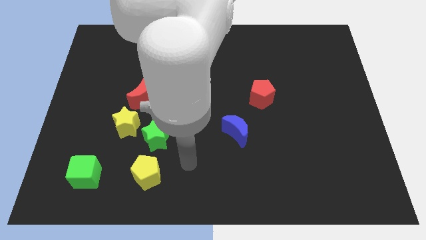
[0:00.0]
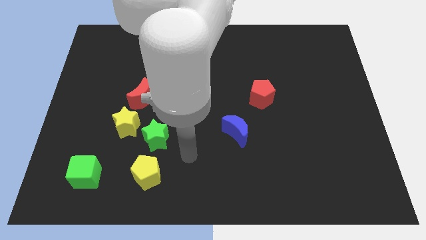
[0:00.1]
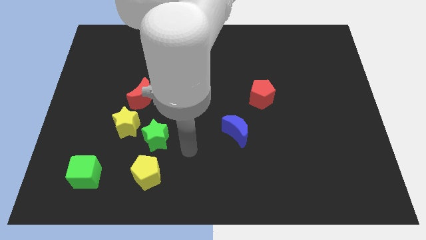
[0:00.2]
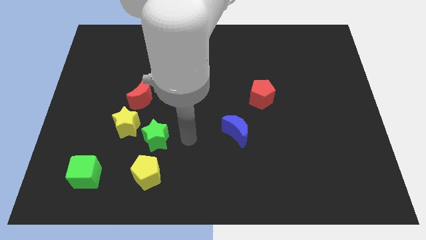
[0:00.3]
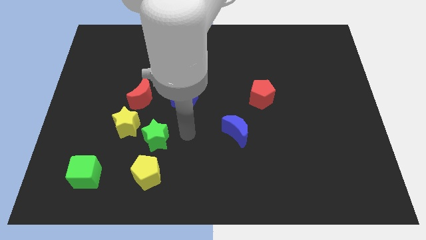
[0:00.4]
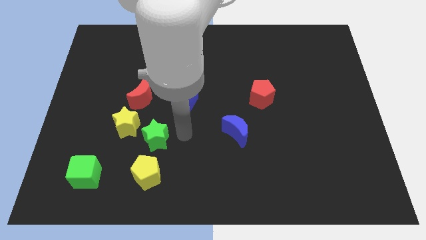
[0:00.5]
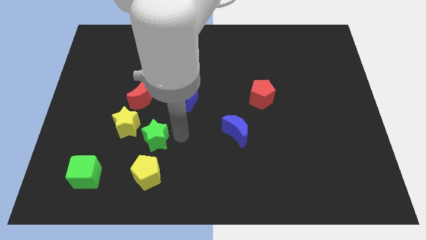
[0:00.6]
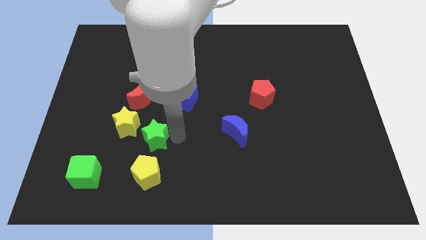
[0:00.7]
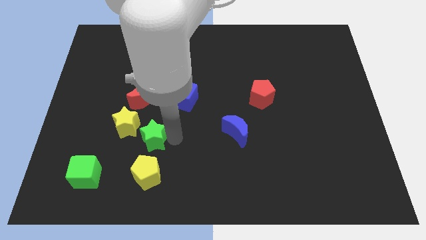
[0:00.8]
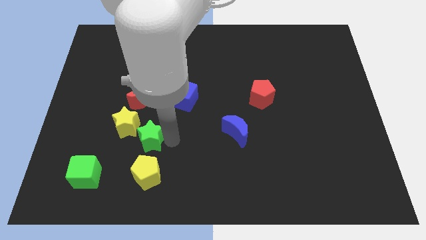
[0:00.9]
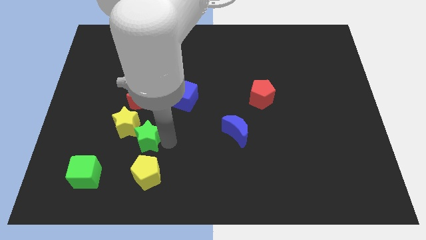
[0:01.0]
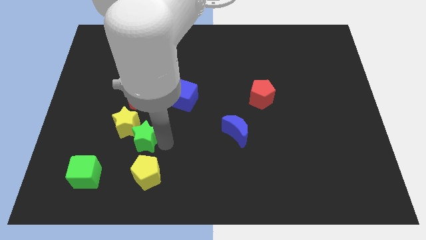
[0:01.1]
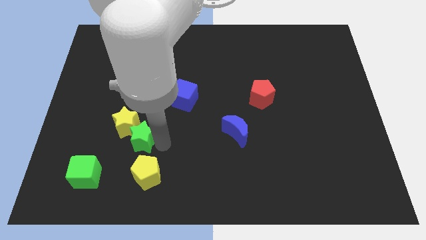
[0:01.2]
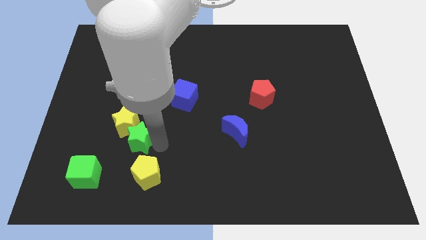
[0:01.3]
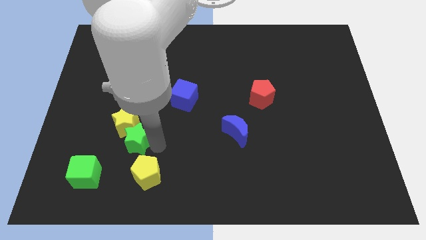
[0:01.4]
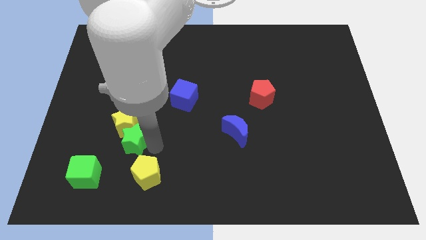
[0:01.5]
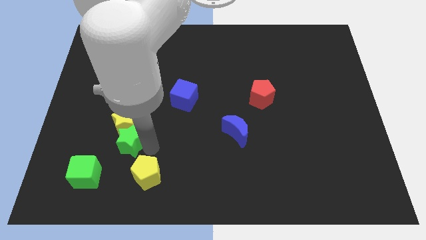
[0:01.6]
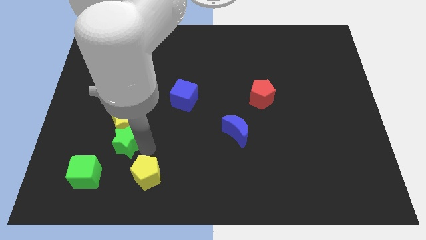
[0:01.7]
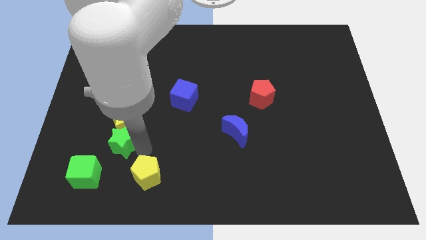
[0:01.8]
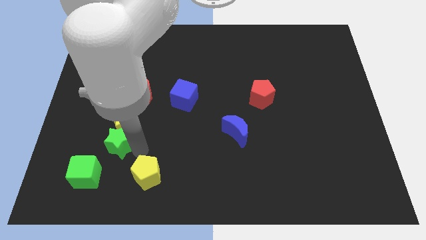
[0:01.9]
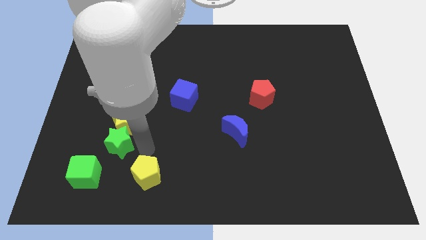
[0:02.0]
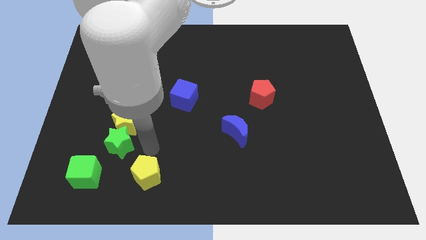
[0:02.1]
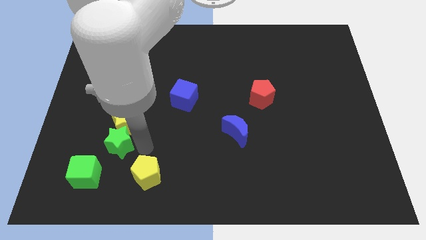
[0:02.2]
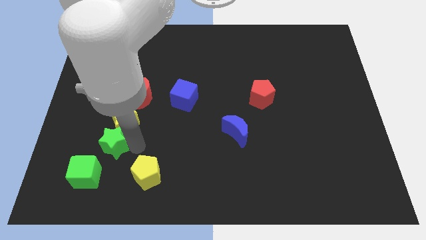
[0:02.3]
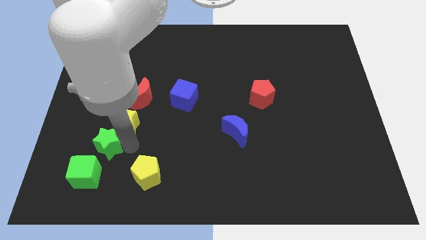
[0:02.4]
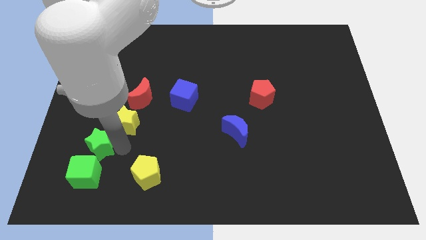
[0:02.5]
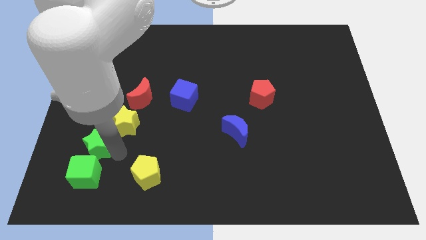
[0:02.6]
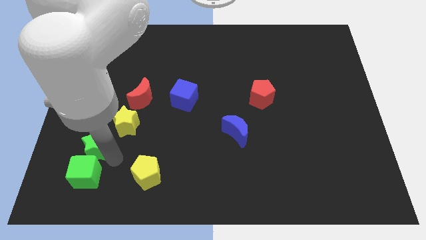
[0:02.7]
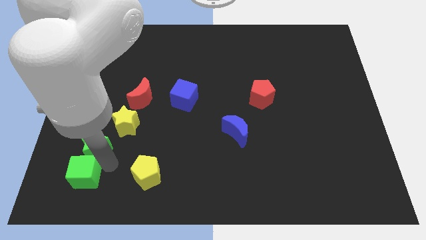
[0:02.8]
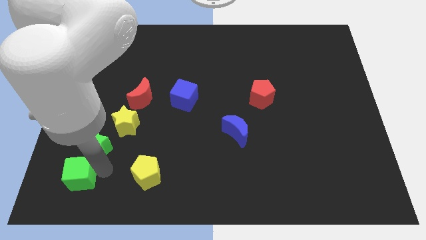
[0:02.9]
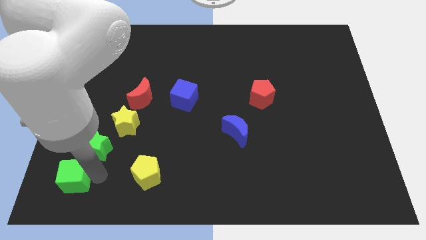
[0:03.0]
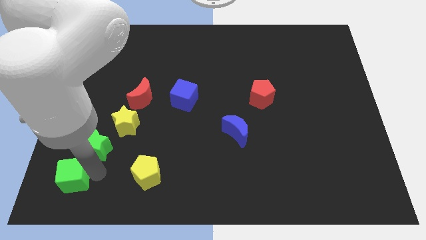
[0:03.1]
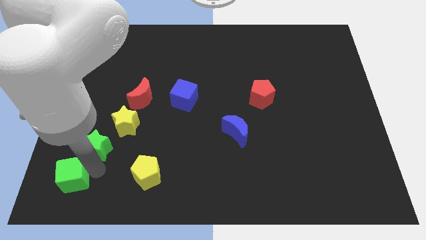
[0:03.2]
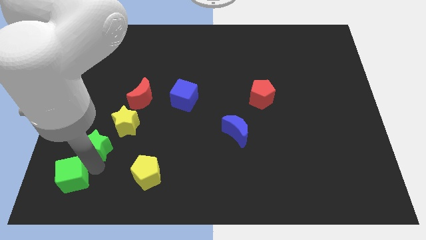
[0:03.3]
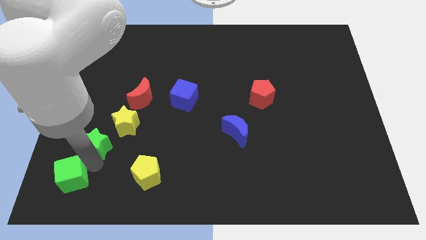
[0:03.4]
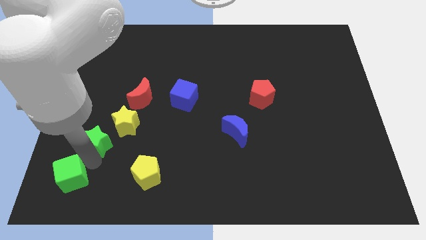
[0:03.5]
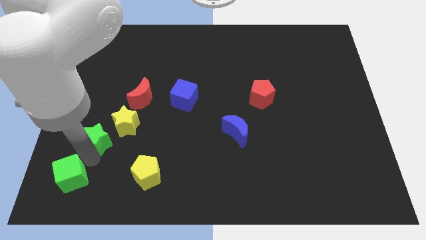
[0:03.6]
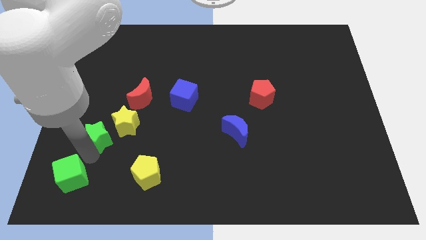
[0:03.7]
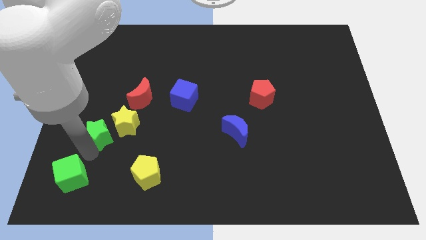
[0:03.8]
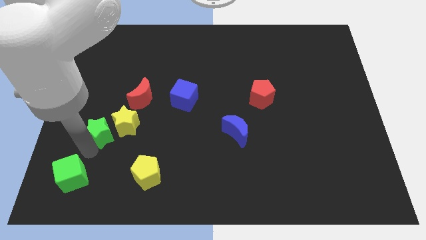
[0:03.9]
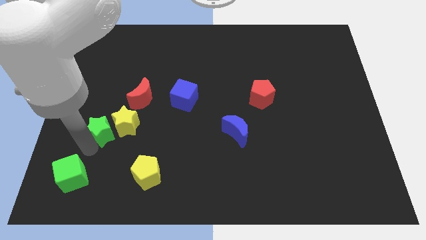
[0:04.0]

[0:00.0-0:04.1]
slightly move the green star up and left diagonally

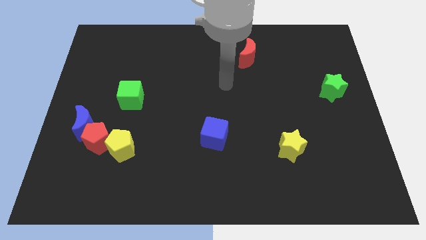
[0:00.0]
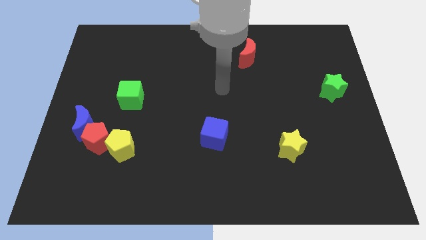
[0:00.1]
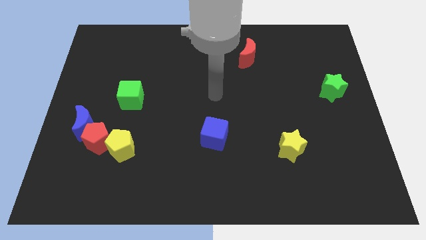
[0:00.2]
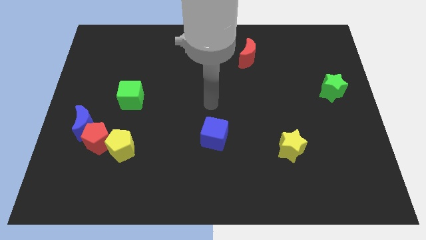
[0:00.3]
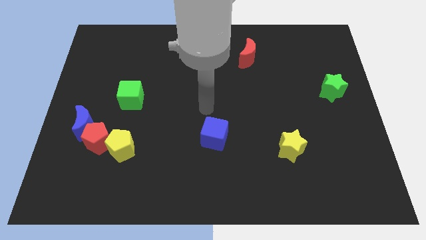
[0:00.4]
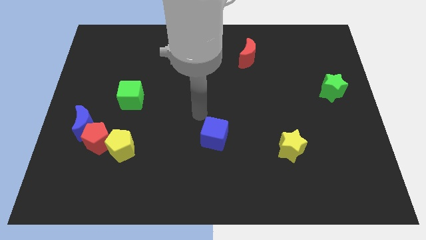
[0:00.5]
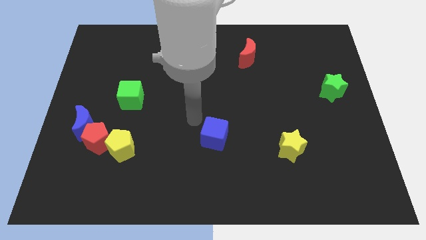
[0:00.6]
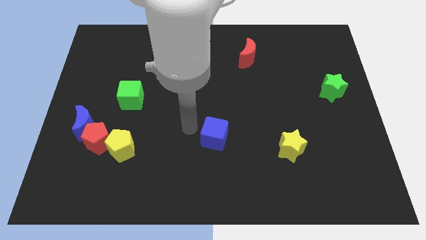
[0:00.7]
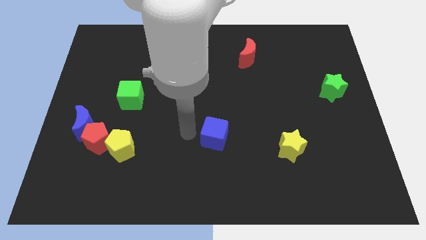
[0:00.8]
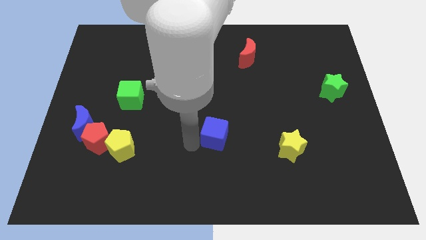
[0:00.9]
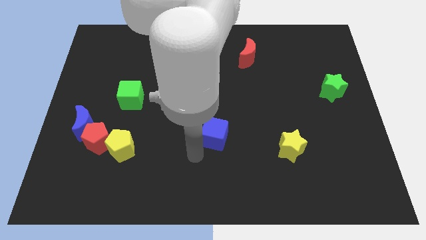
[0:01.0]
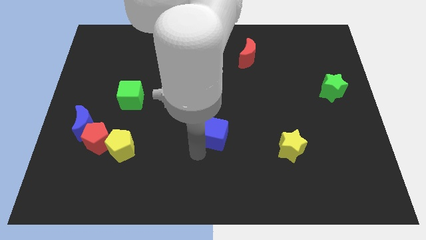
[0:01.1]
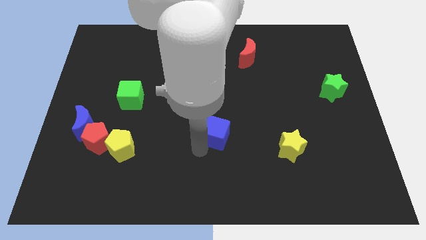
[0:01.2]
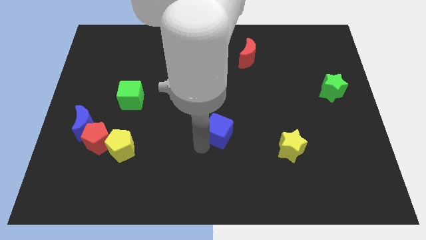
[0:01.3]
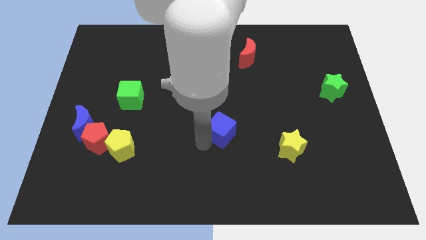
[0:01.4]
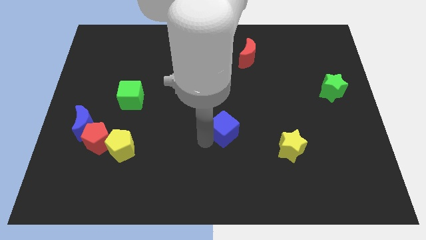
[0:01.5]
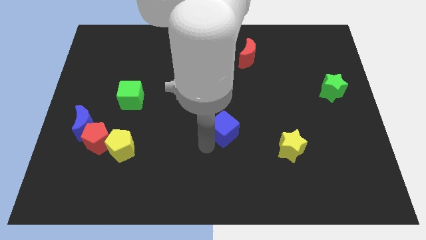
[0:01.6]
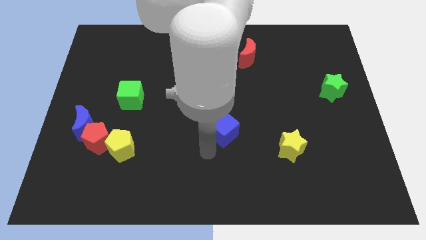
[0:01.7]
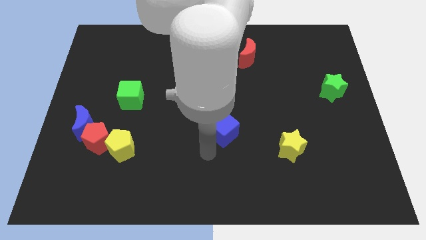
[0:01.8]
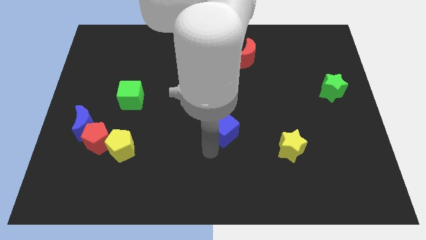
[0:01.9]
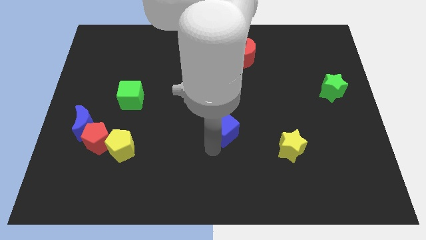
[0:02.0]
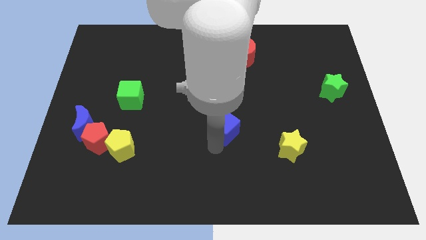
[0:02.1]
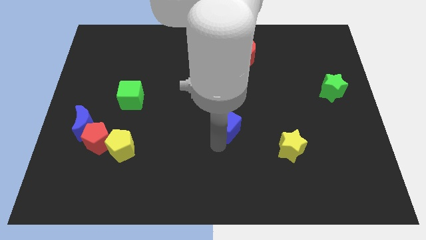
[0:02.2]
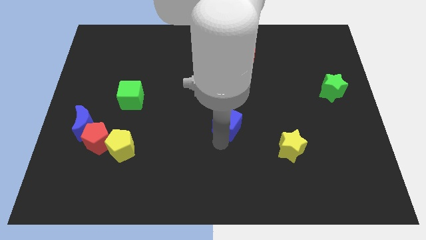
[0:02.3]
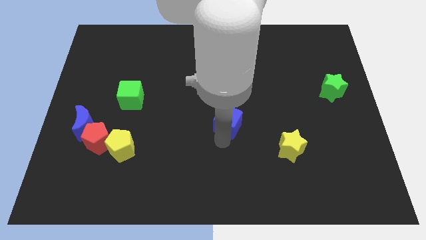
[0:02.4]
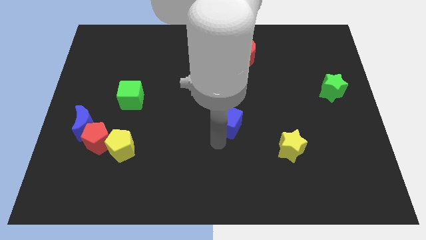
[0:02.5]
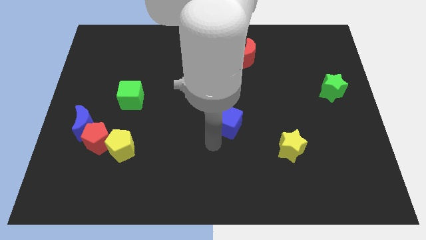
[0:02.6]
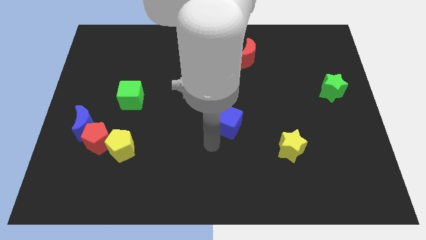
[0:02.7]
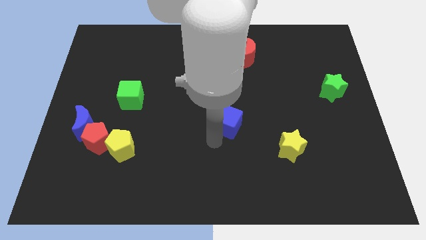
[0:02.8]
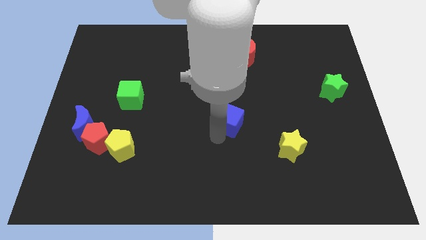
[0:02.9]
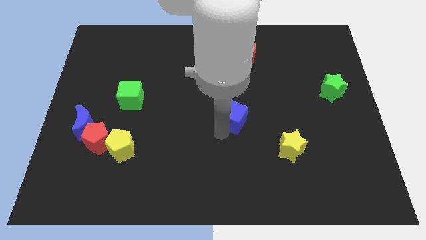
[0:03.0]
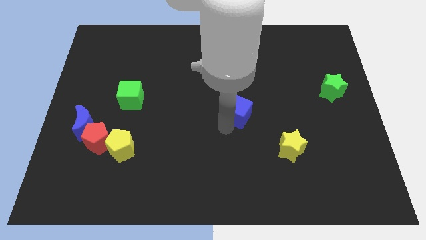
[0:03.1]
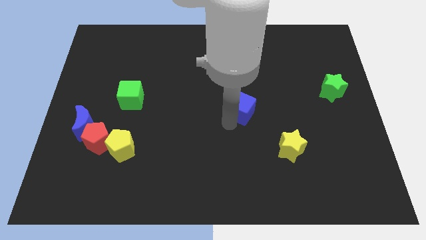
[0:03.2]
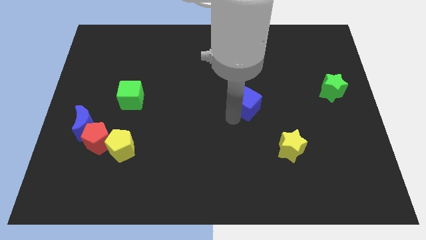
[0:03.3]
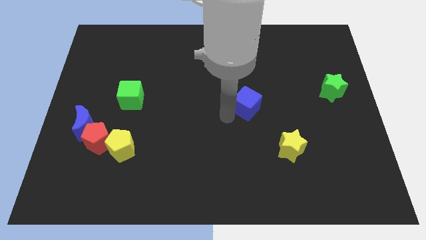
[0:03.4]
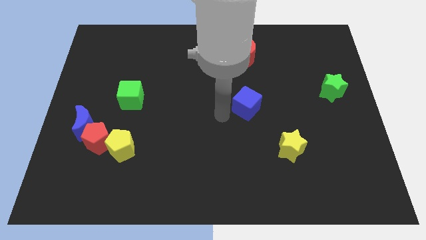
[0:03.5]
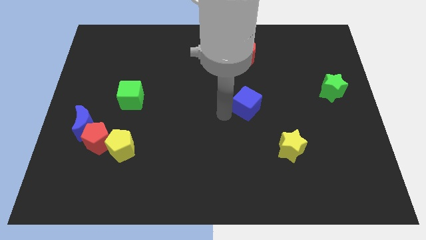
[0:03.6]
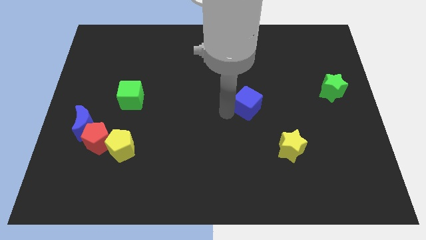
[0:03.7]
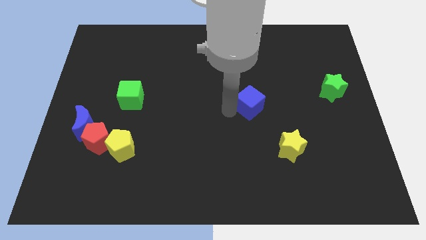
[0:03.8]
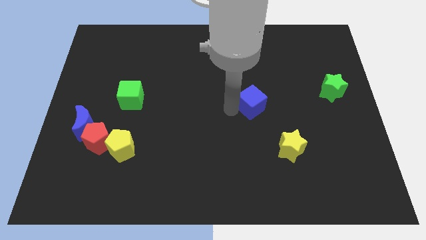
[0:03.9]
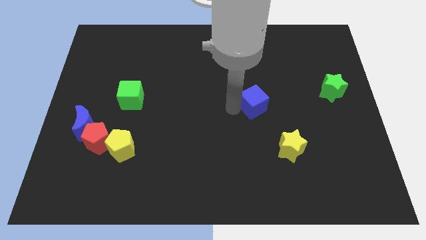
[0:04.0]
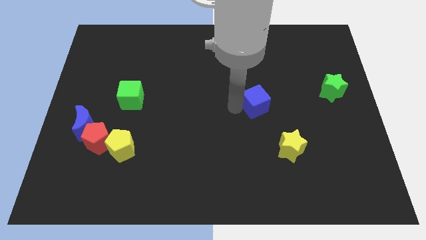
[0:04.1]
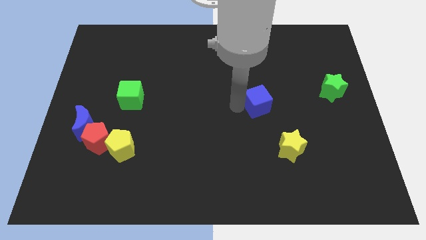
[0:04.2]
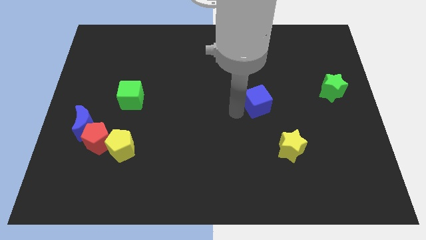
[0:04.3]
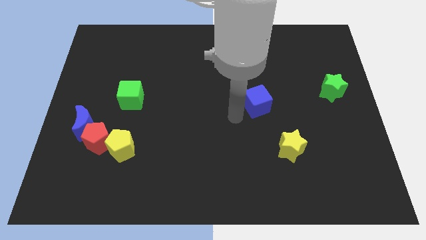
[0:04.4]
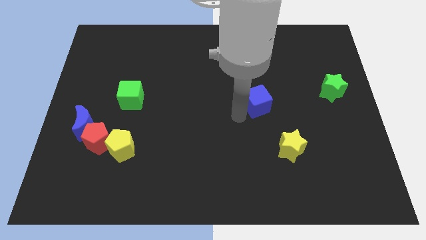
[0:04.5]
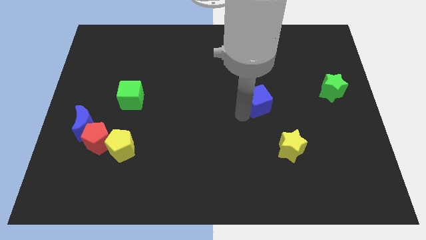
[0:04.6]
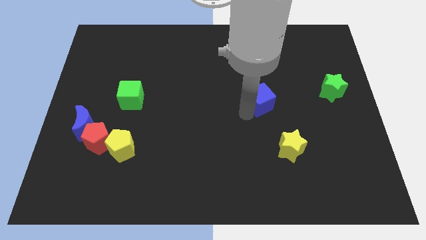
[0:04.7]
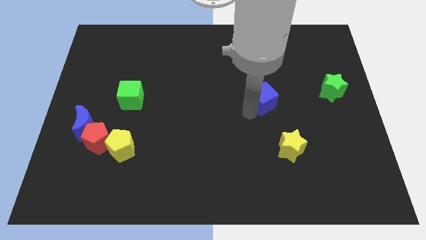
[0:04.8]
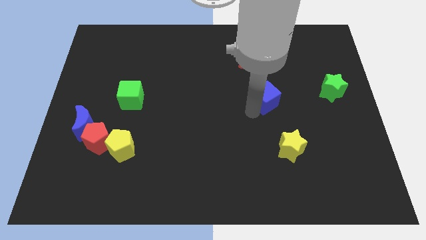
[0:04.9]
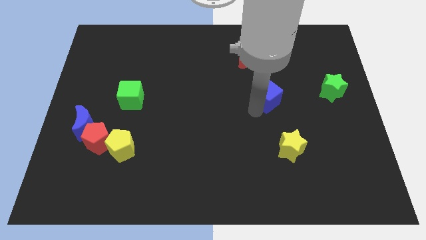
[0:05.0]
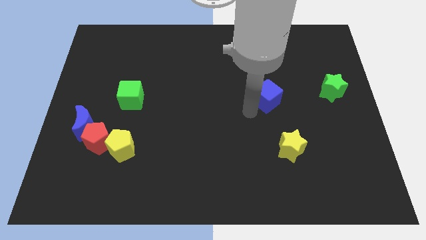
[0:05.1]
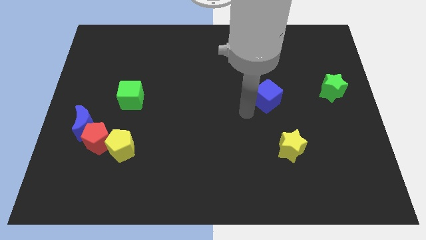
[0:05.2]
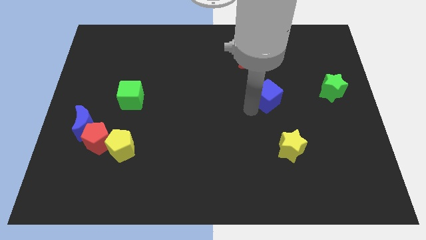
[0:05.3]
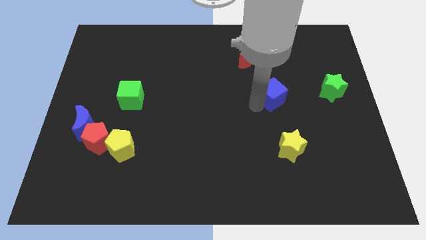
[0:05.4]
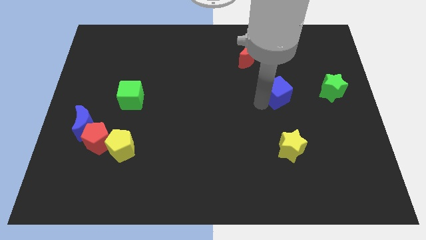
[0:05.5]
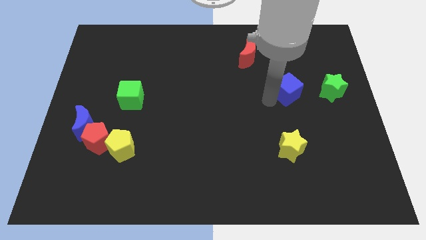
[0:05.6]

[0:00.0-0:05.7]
slide the blue cube diagonally up and to the right
